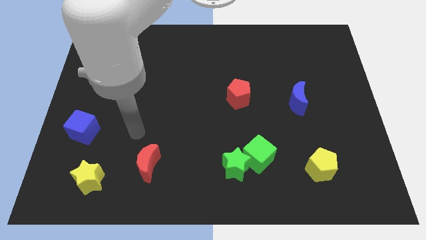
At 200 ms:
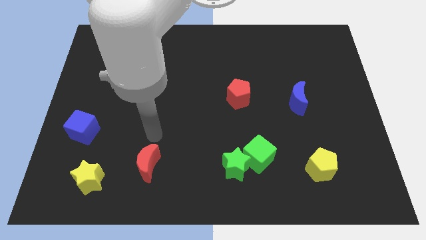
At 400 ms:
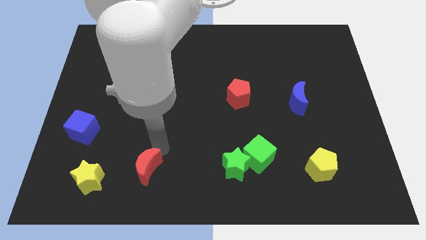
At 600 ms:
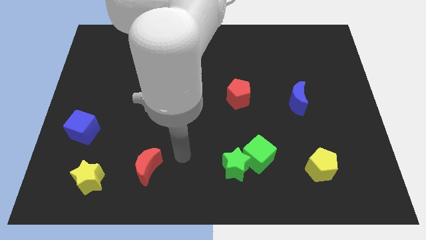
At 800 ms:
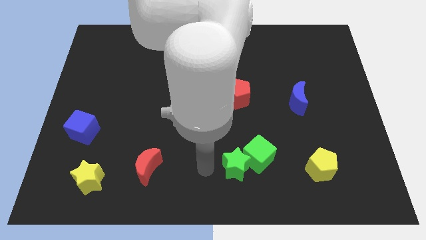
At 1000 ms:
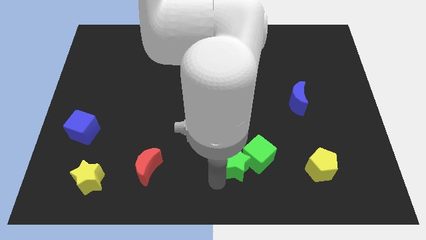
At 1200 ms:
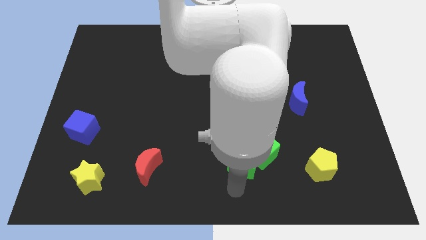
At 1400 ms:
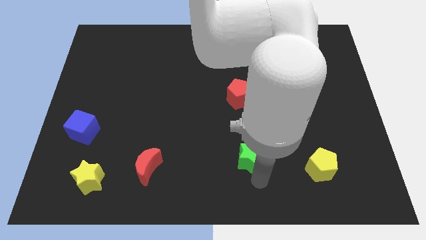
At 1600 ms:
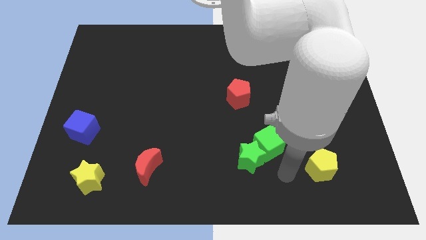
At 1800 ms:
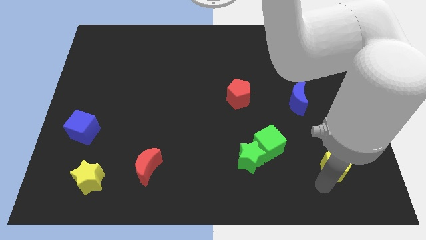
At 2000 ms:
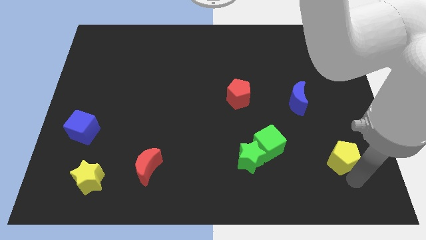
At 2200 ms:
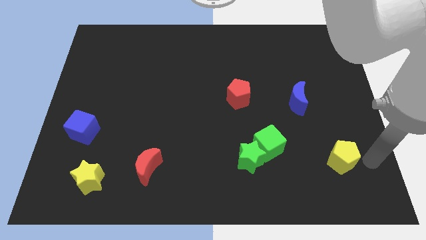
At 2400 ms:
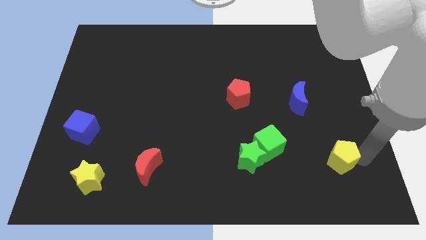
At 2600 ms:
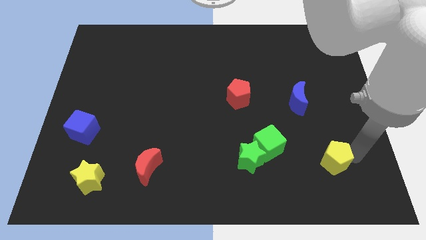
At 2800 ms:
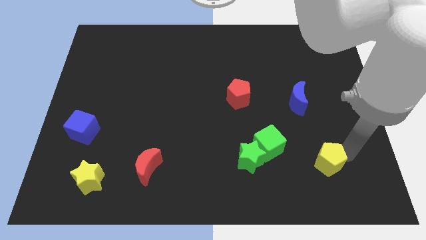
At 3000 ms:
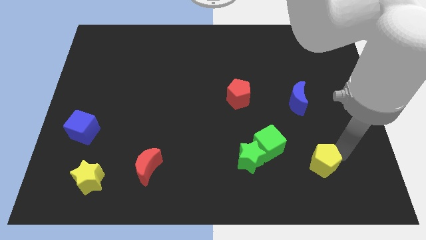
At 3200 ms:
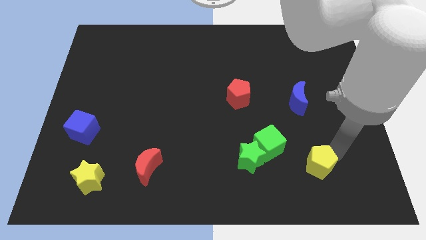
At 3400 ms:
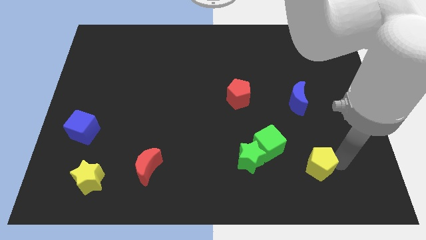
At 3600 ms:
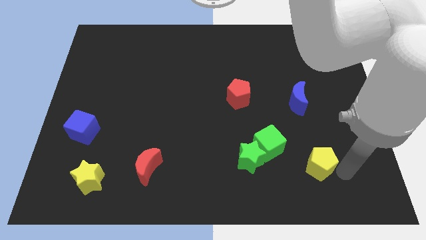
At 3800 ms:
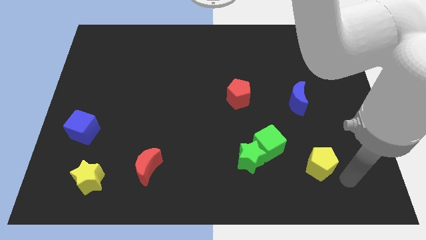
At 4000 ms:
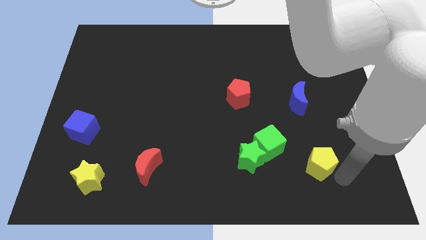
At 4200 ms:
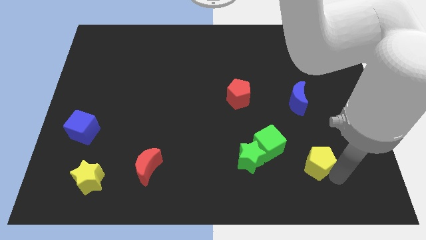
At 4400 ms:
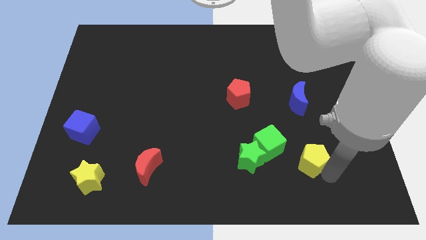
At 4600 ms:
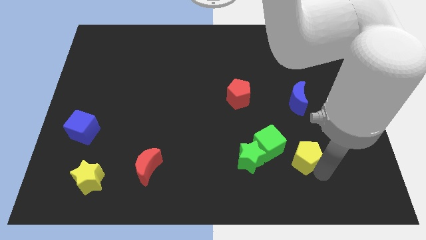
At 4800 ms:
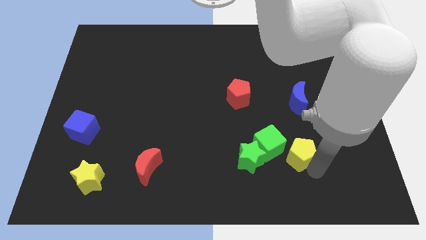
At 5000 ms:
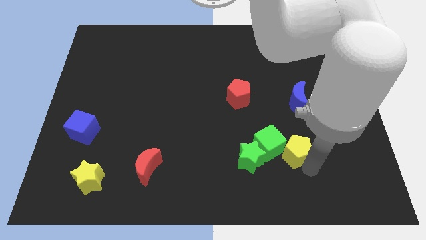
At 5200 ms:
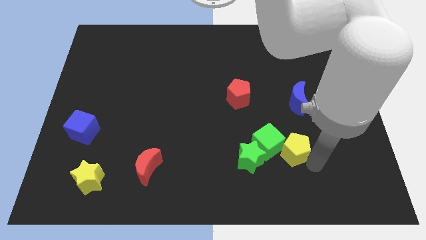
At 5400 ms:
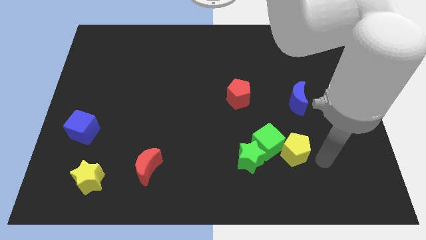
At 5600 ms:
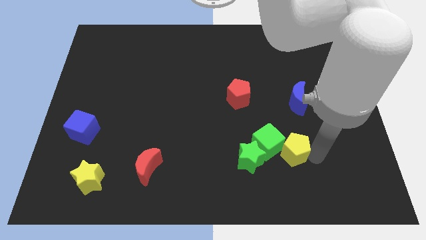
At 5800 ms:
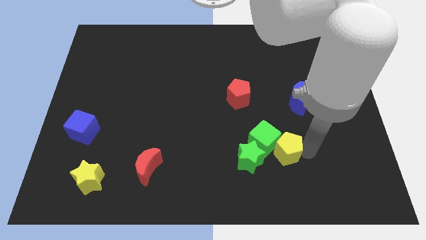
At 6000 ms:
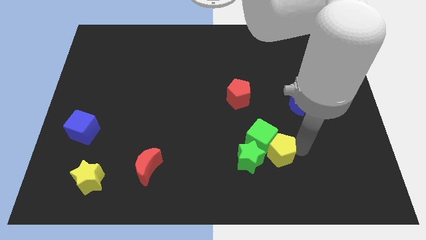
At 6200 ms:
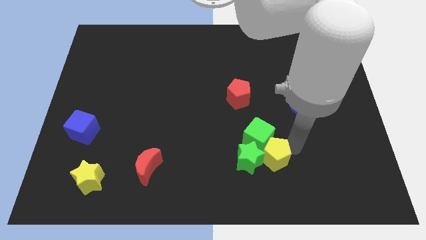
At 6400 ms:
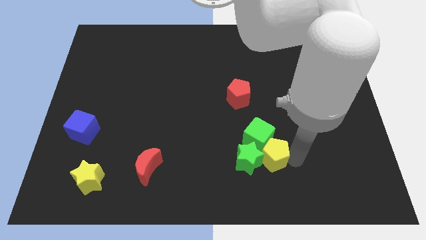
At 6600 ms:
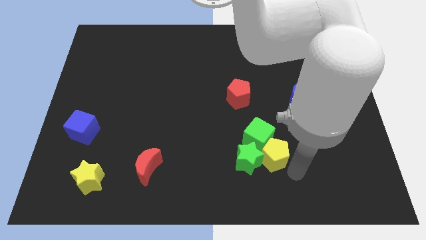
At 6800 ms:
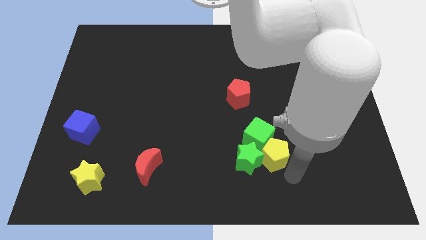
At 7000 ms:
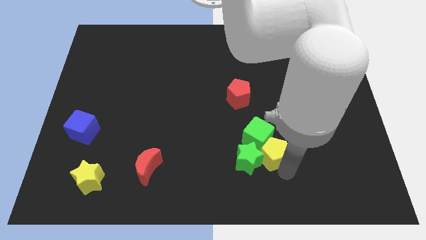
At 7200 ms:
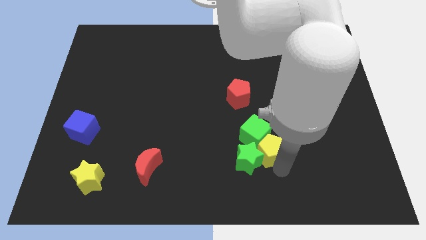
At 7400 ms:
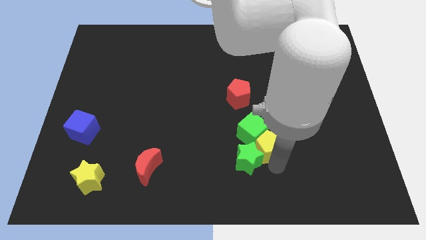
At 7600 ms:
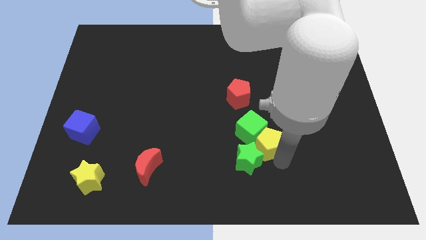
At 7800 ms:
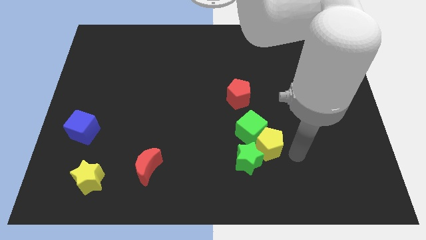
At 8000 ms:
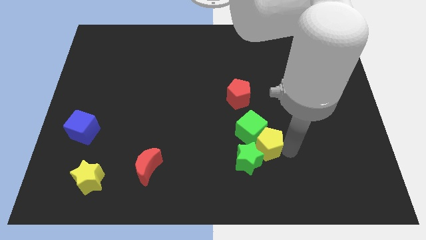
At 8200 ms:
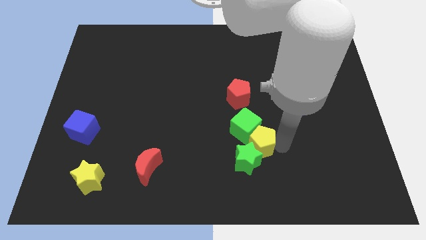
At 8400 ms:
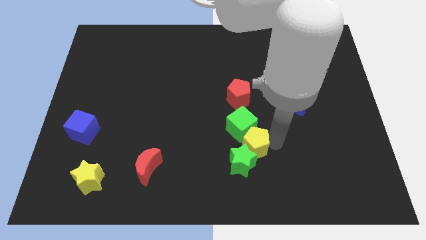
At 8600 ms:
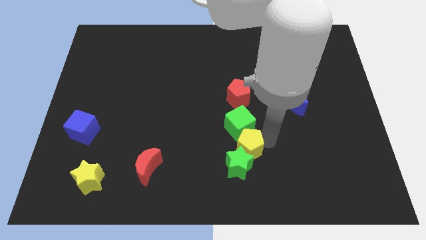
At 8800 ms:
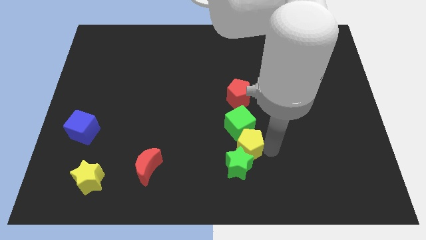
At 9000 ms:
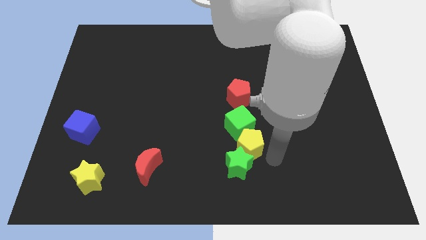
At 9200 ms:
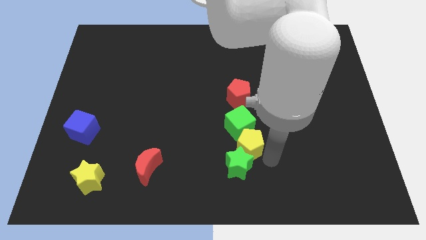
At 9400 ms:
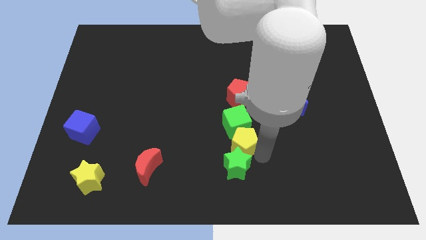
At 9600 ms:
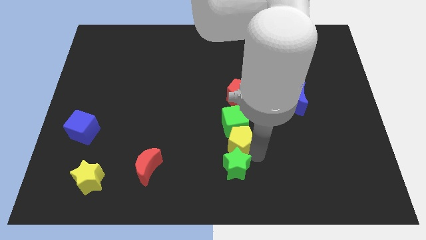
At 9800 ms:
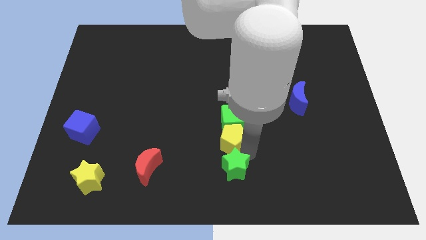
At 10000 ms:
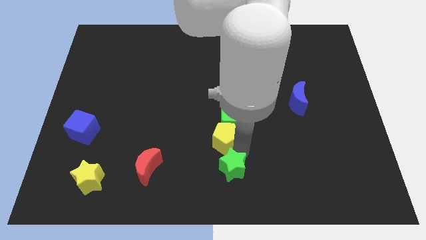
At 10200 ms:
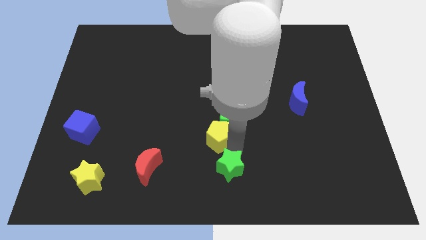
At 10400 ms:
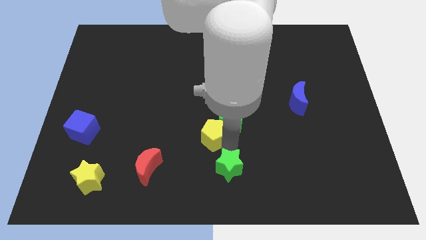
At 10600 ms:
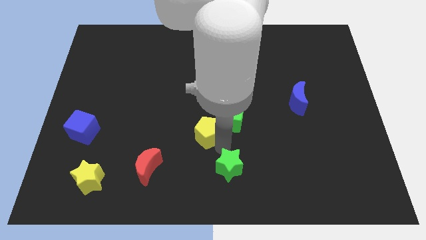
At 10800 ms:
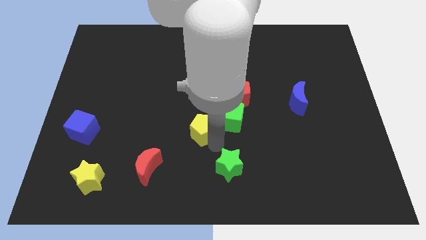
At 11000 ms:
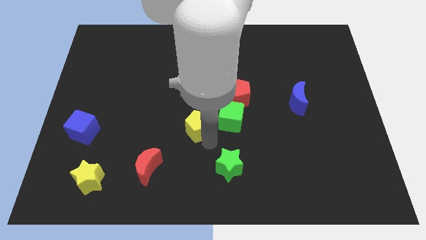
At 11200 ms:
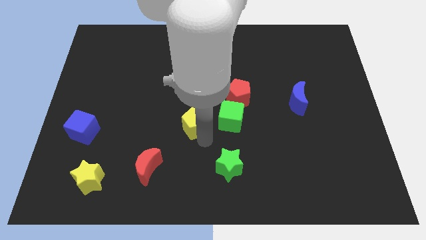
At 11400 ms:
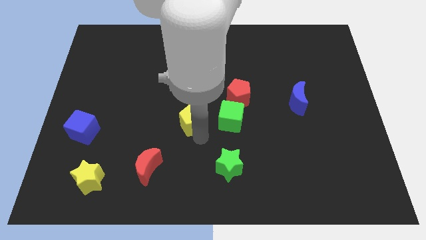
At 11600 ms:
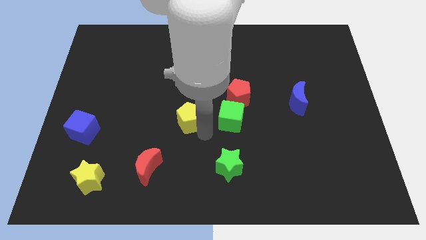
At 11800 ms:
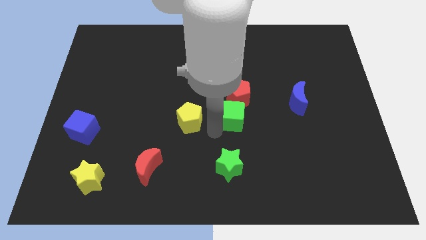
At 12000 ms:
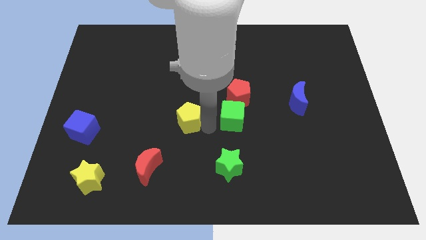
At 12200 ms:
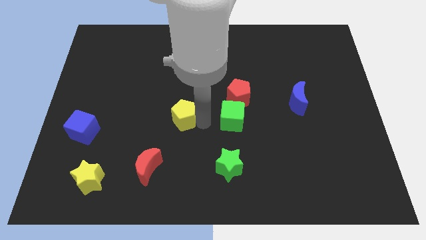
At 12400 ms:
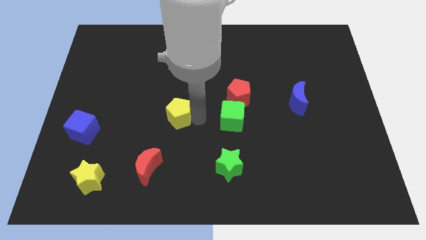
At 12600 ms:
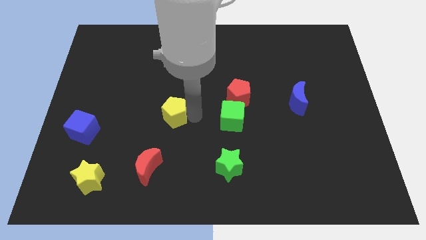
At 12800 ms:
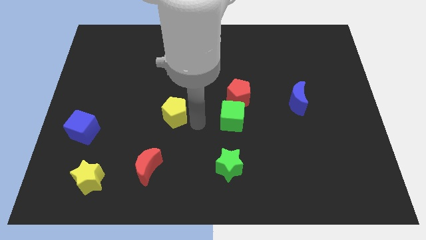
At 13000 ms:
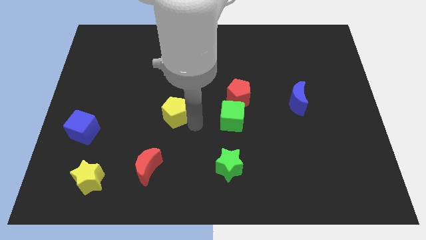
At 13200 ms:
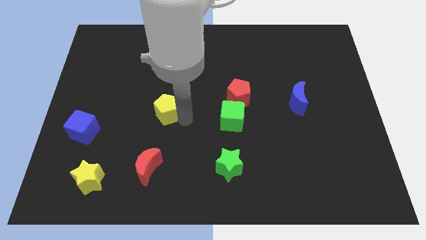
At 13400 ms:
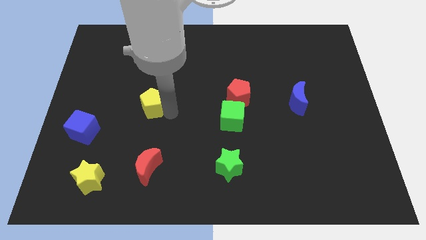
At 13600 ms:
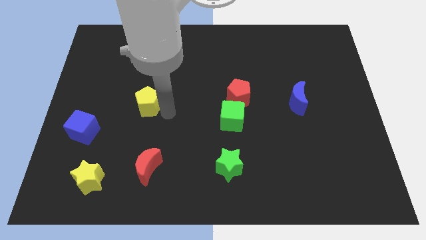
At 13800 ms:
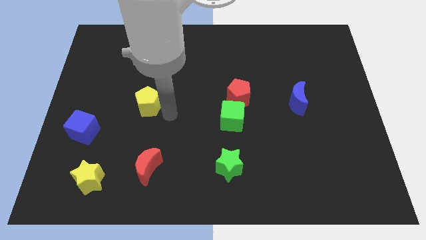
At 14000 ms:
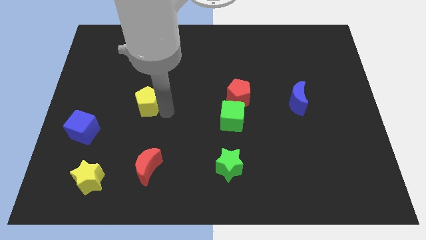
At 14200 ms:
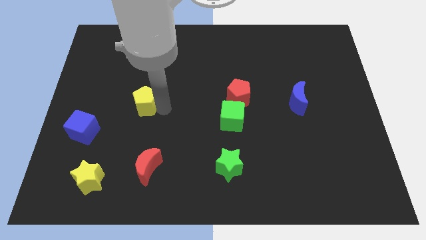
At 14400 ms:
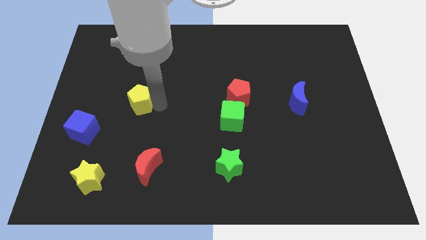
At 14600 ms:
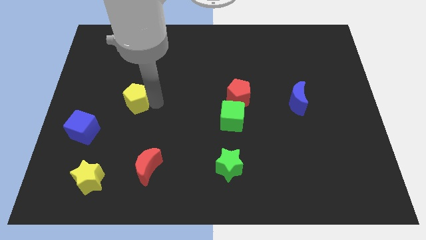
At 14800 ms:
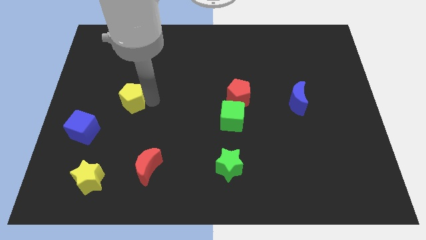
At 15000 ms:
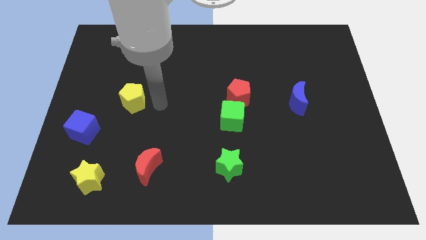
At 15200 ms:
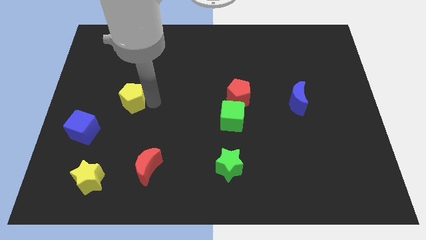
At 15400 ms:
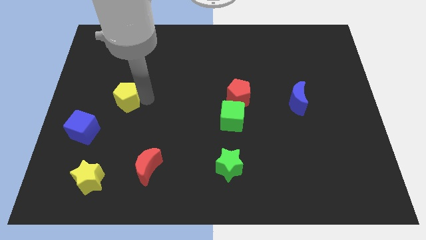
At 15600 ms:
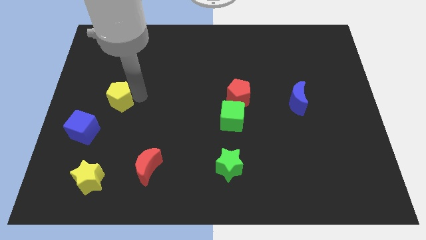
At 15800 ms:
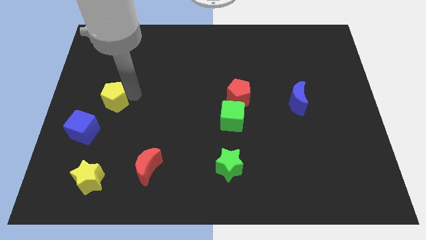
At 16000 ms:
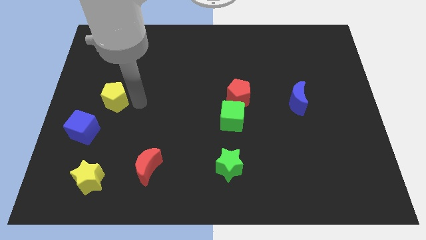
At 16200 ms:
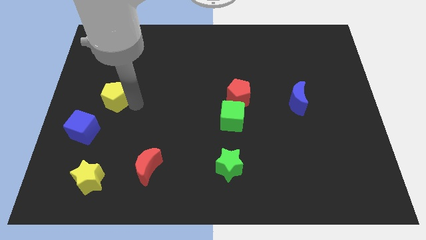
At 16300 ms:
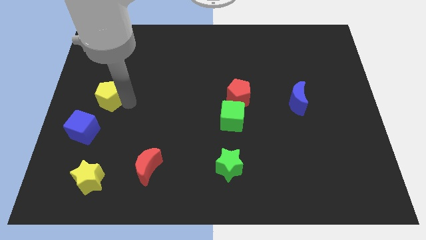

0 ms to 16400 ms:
slide the yellow pentagon to the top of the blue cube
